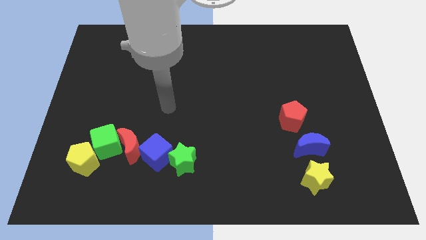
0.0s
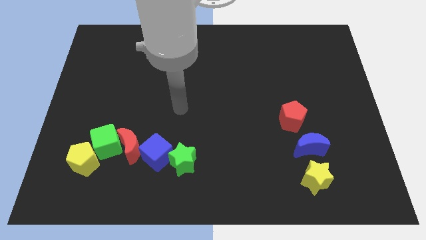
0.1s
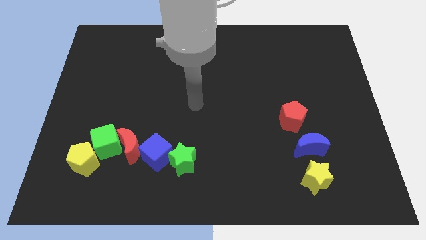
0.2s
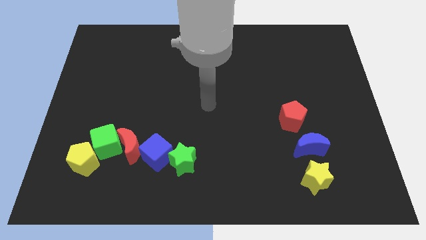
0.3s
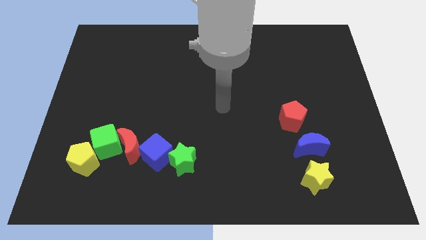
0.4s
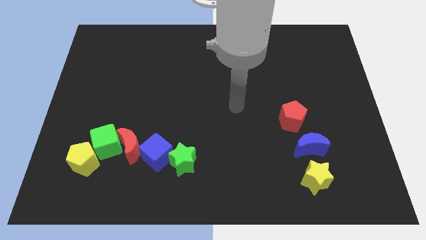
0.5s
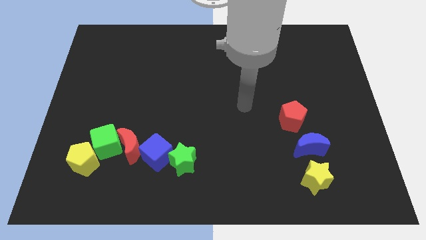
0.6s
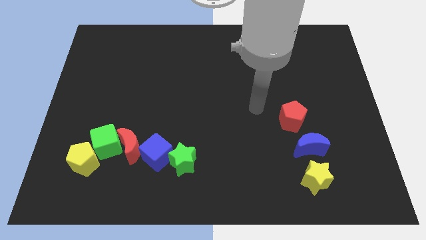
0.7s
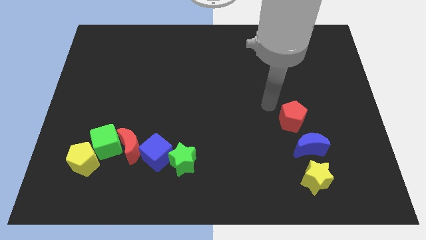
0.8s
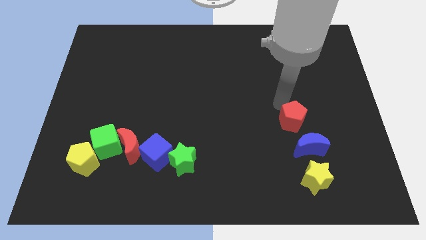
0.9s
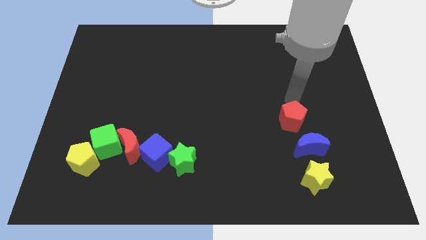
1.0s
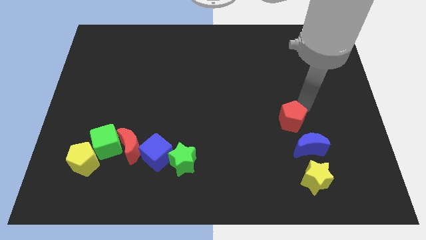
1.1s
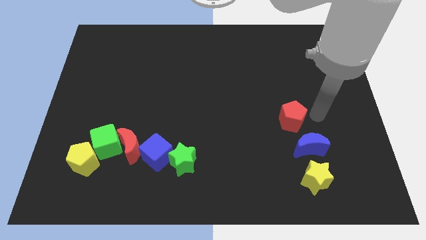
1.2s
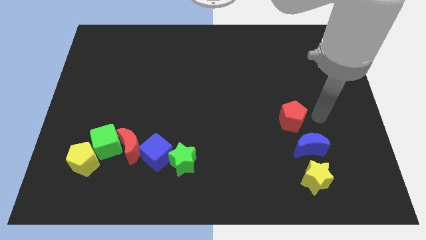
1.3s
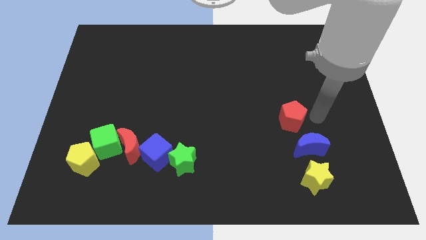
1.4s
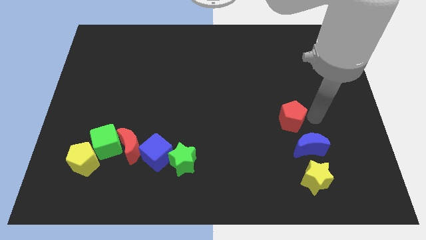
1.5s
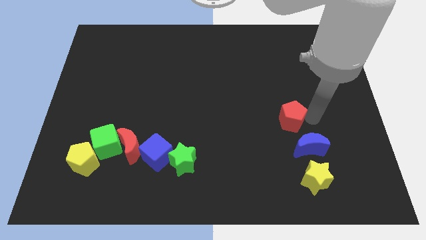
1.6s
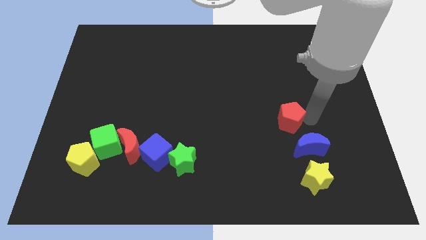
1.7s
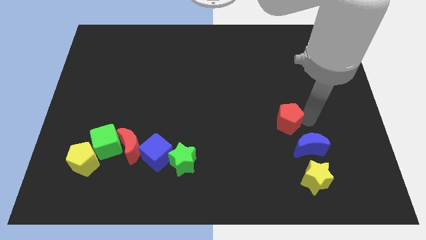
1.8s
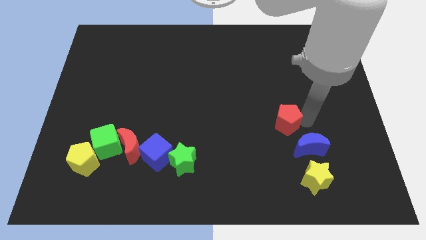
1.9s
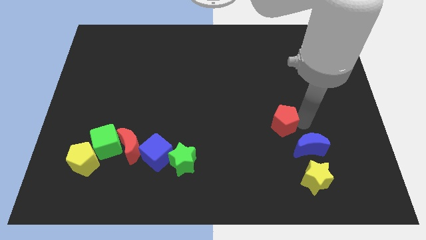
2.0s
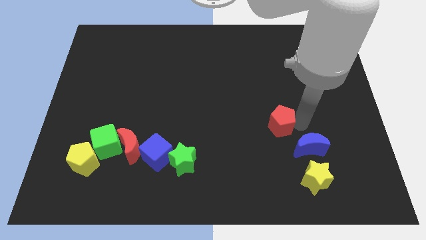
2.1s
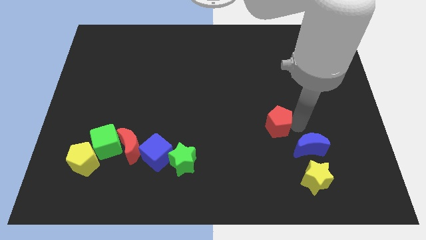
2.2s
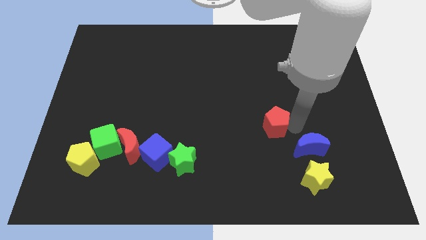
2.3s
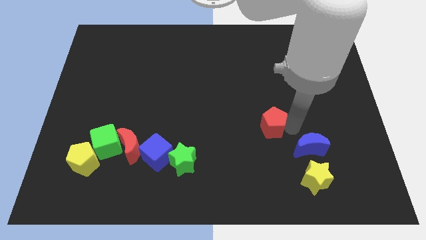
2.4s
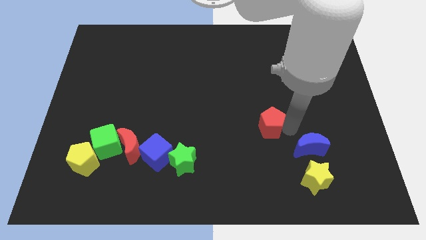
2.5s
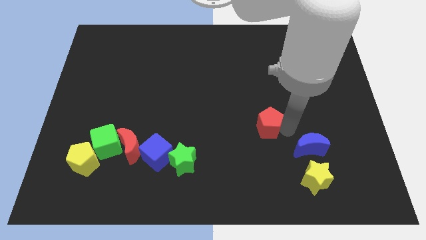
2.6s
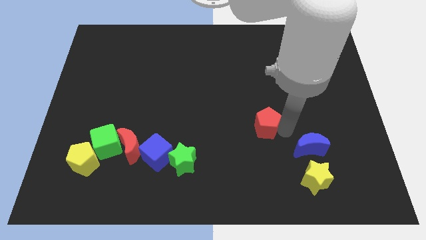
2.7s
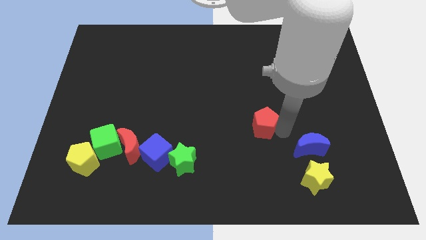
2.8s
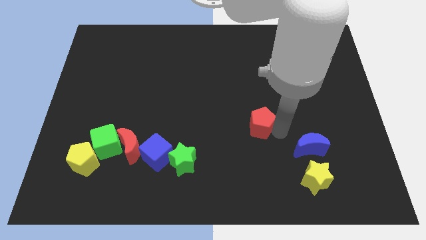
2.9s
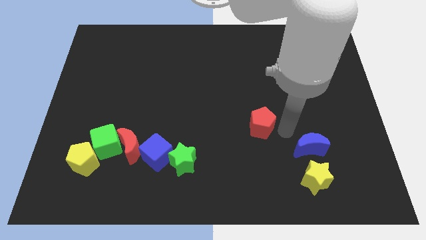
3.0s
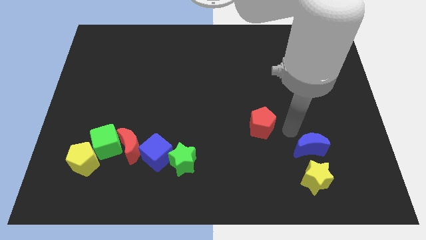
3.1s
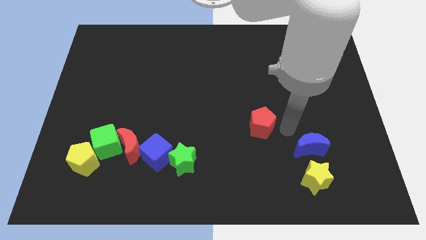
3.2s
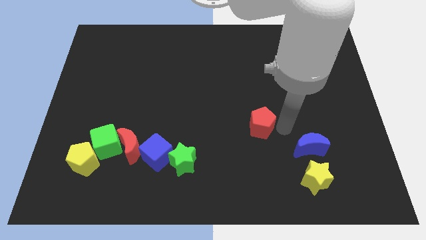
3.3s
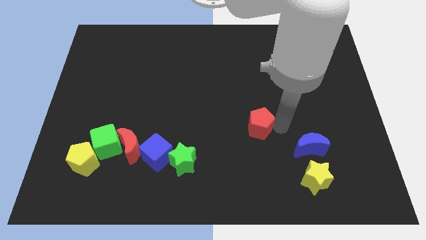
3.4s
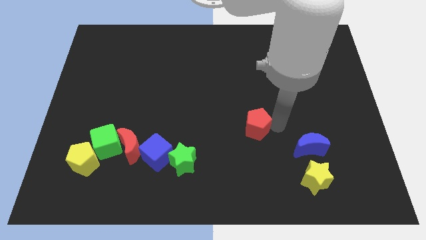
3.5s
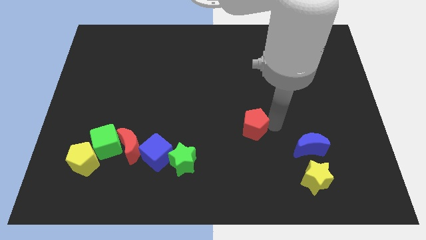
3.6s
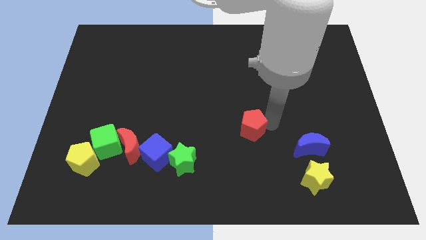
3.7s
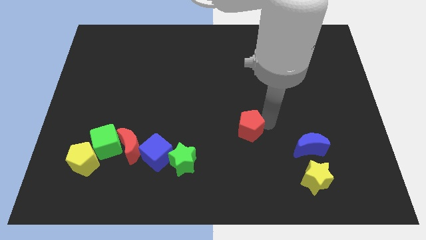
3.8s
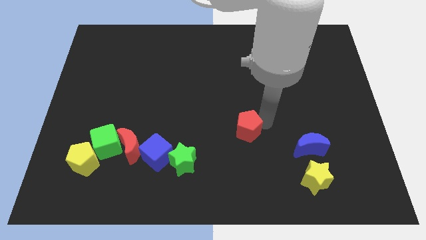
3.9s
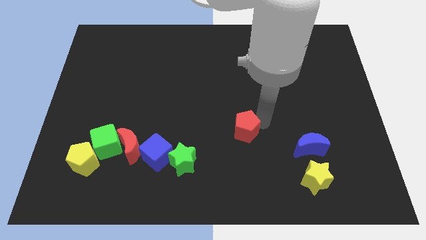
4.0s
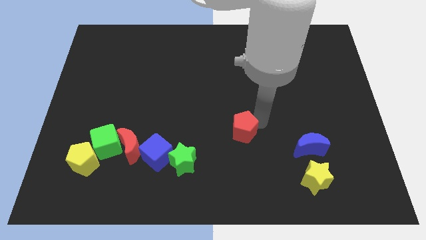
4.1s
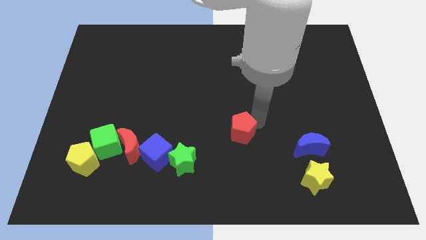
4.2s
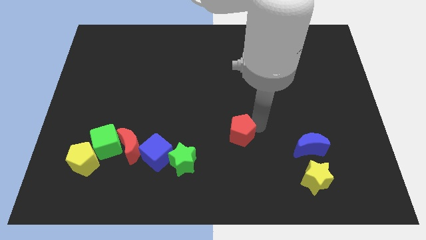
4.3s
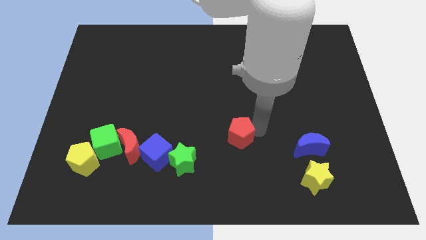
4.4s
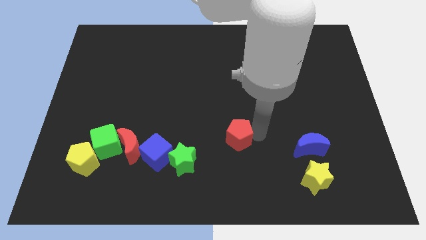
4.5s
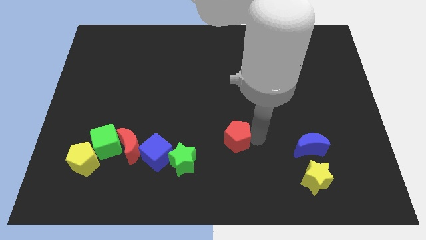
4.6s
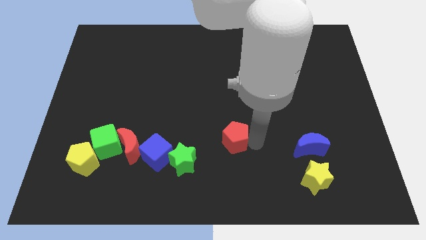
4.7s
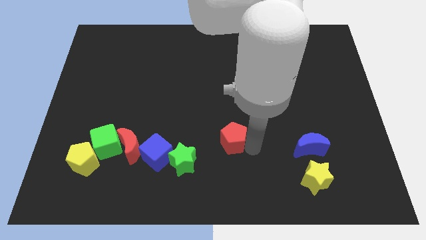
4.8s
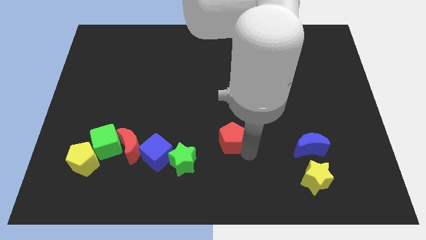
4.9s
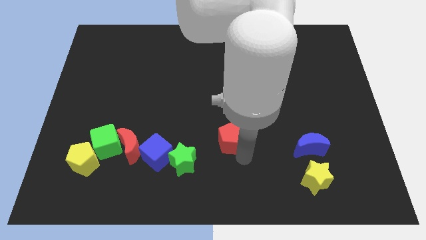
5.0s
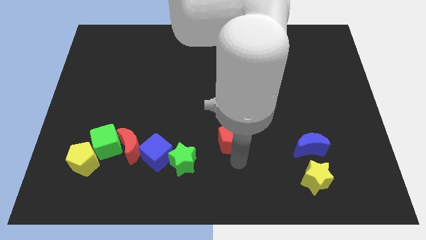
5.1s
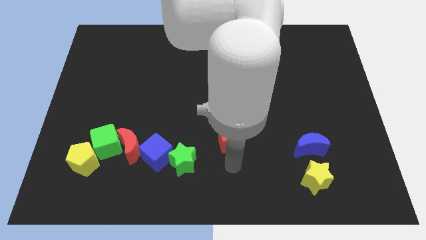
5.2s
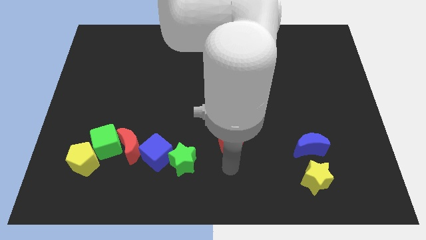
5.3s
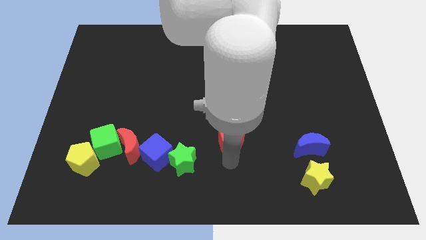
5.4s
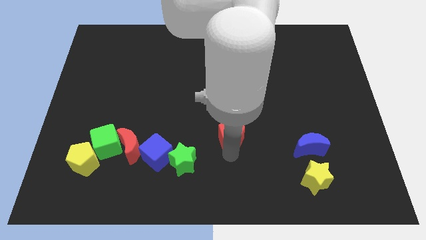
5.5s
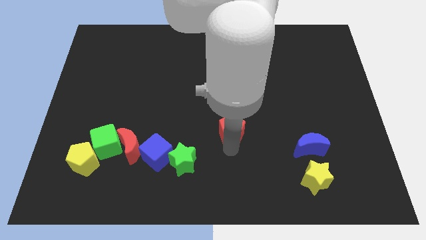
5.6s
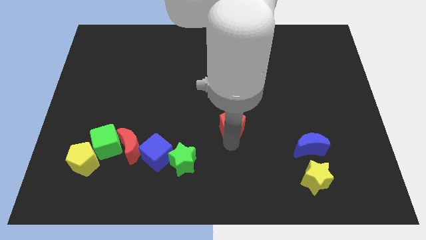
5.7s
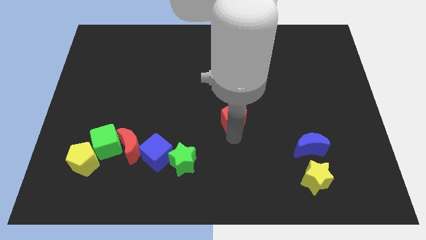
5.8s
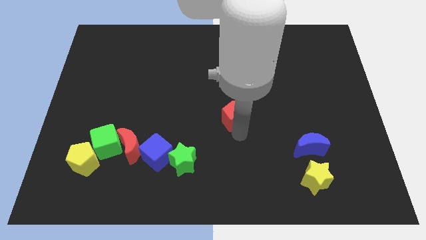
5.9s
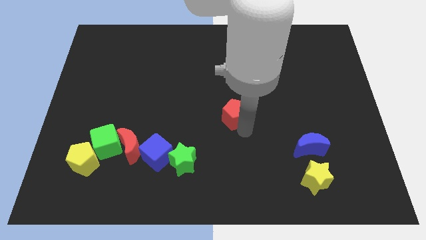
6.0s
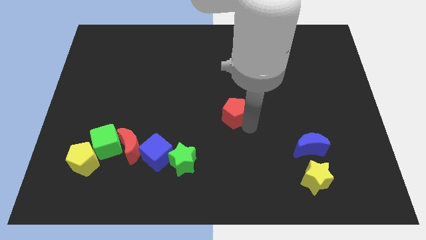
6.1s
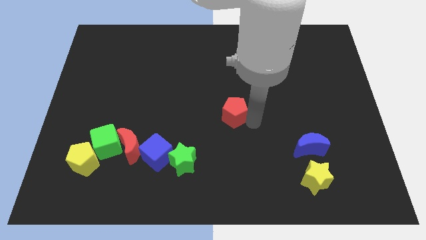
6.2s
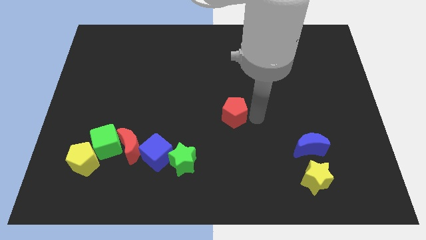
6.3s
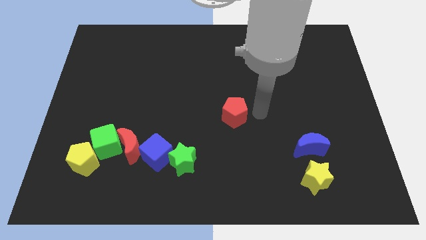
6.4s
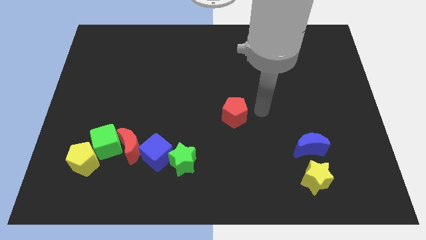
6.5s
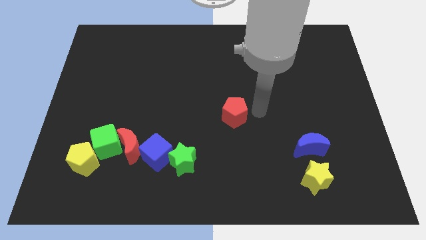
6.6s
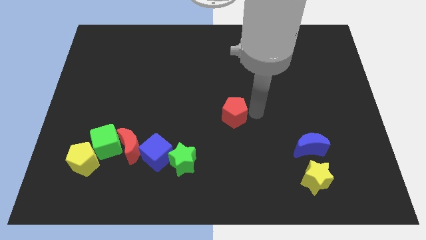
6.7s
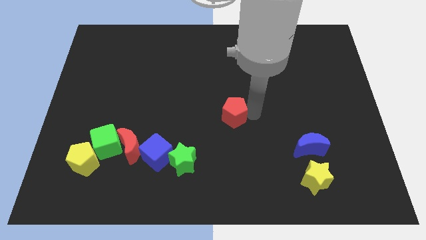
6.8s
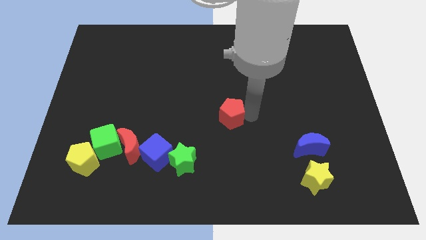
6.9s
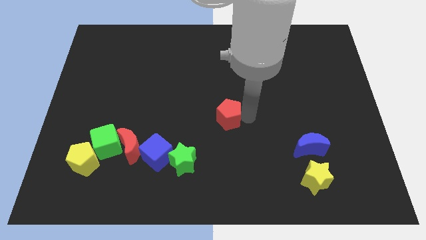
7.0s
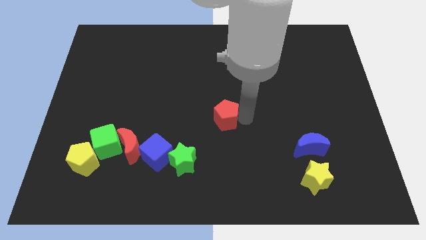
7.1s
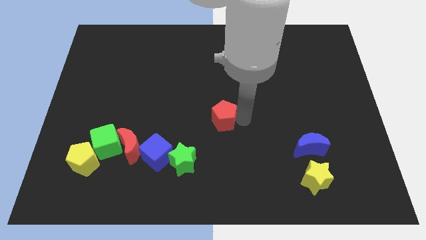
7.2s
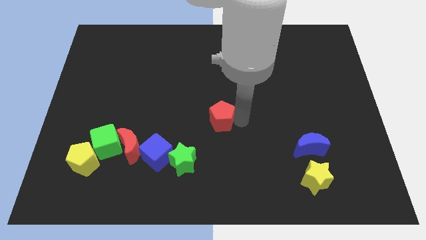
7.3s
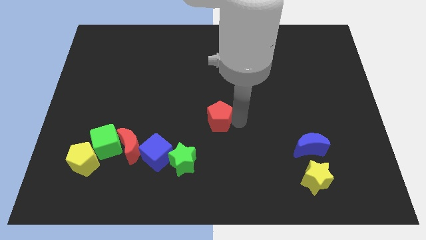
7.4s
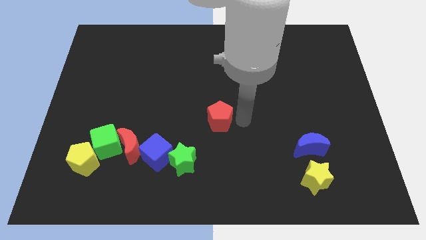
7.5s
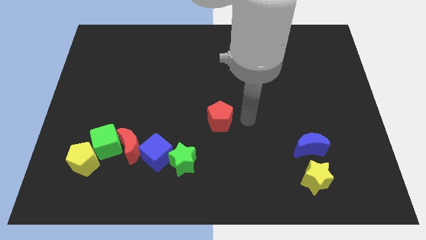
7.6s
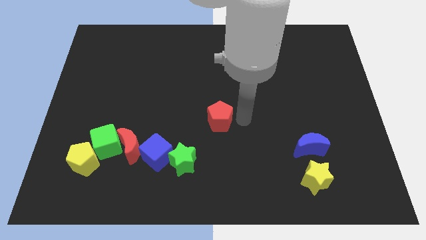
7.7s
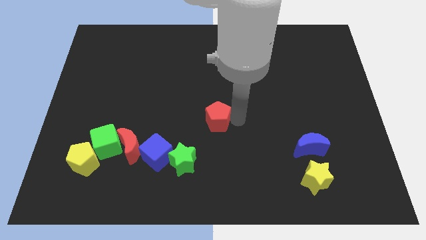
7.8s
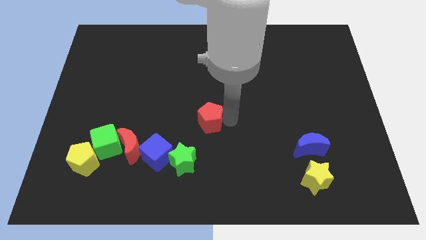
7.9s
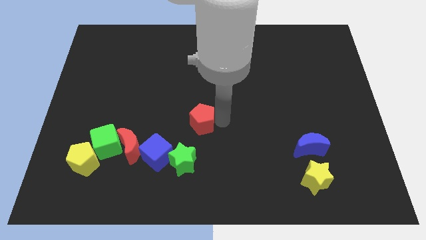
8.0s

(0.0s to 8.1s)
slide the red pentagon left
